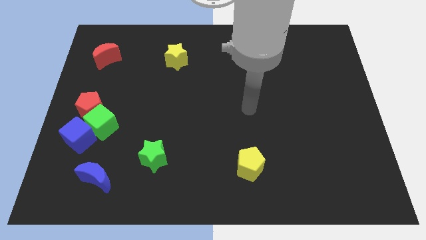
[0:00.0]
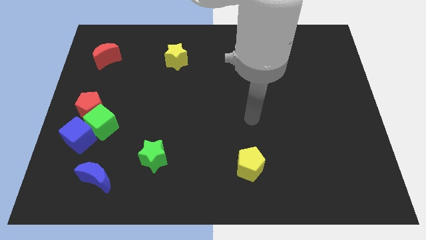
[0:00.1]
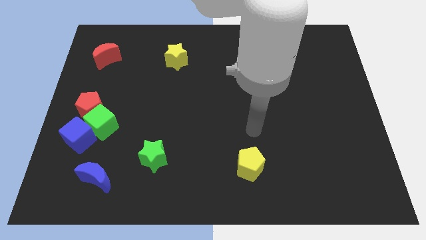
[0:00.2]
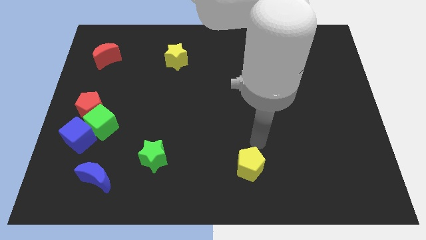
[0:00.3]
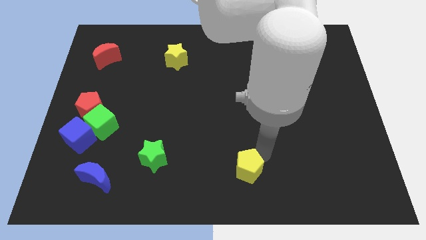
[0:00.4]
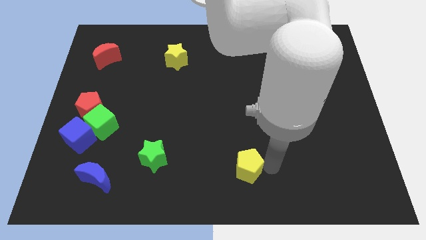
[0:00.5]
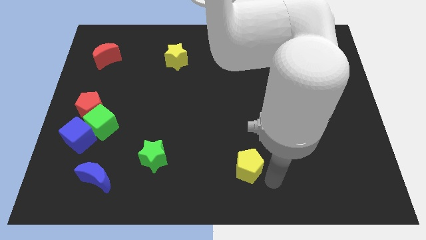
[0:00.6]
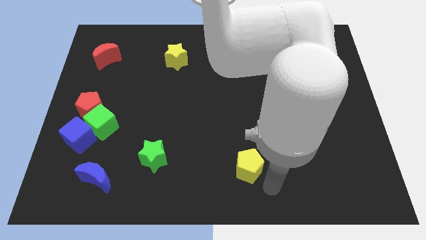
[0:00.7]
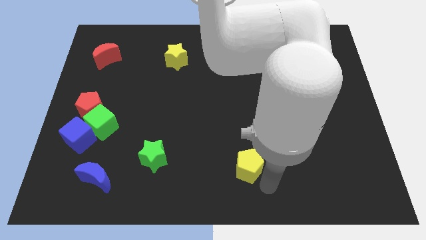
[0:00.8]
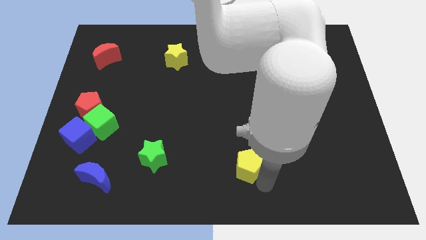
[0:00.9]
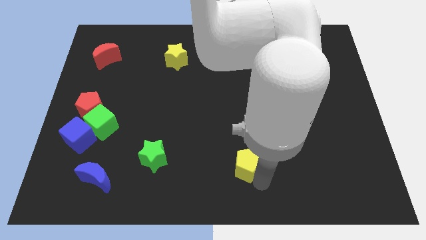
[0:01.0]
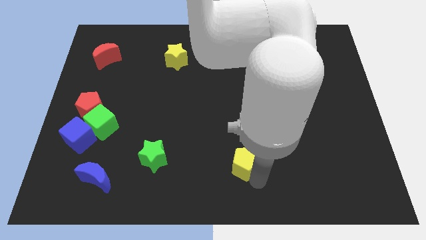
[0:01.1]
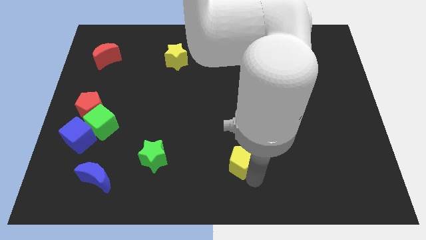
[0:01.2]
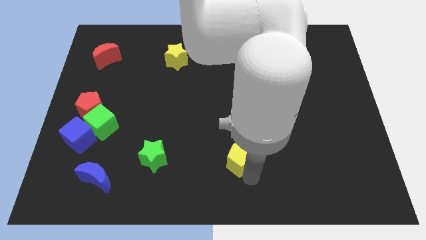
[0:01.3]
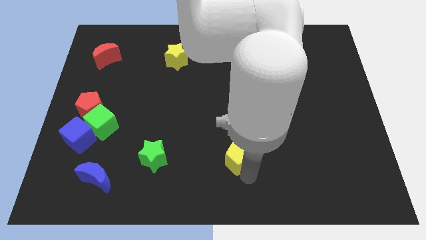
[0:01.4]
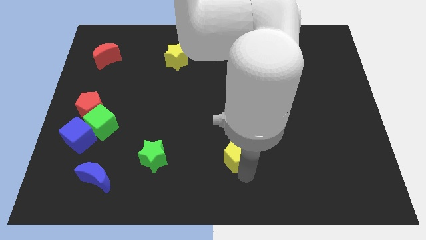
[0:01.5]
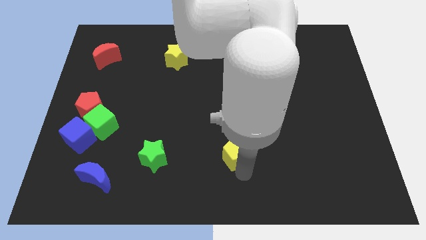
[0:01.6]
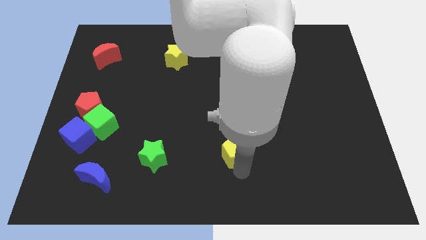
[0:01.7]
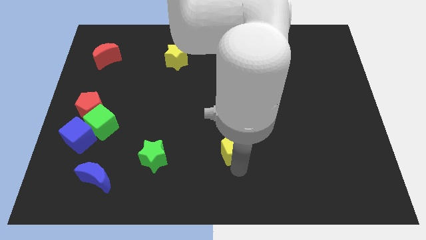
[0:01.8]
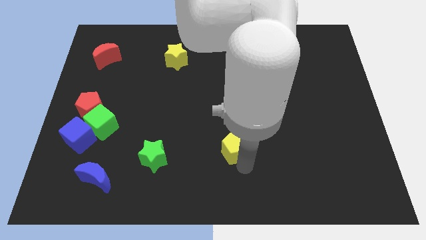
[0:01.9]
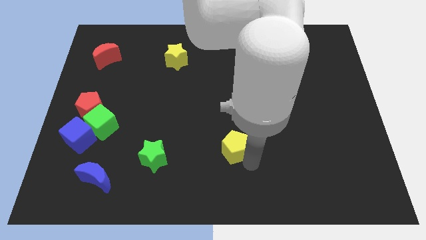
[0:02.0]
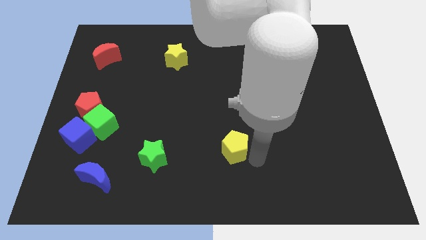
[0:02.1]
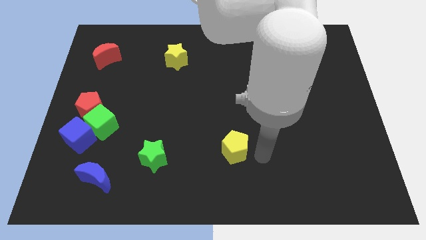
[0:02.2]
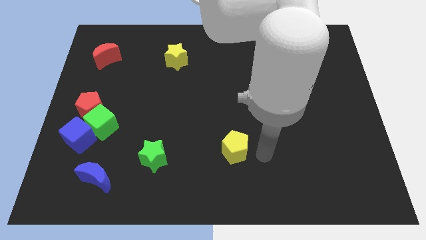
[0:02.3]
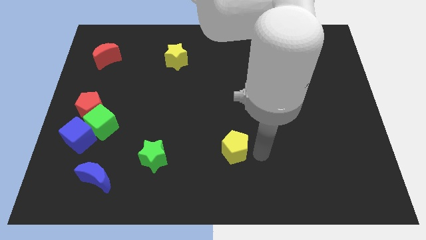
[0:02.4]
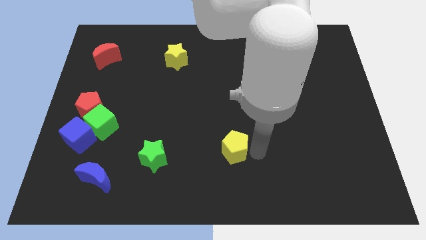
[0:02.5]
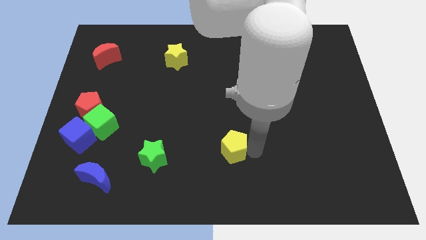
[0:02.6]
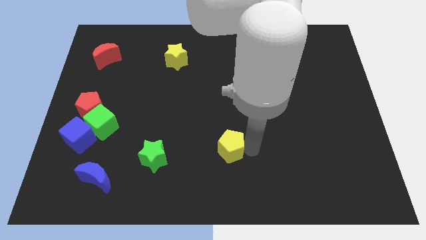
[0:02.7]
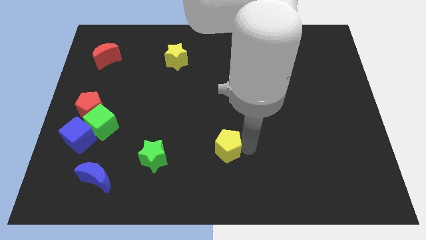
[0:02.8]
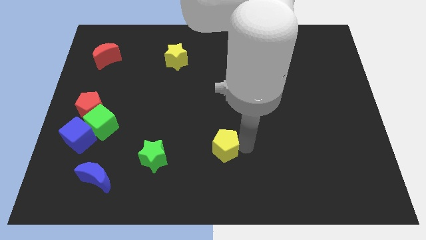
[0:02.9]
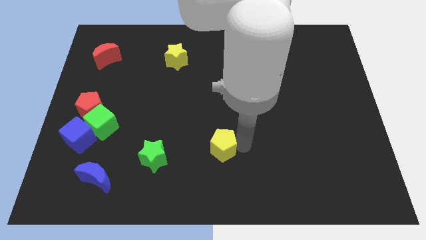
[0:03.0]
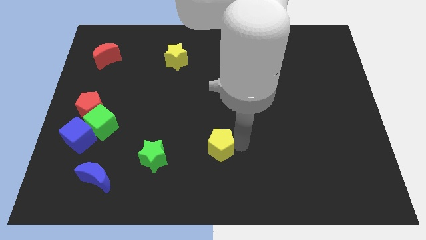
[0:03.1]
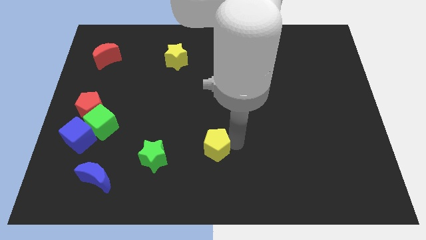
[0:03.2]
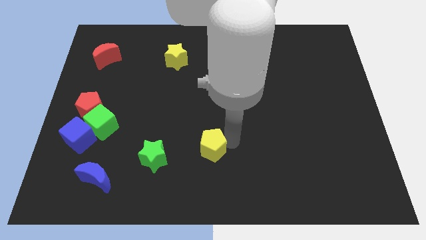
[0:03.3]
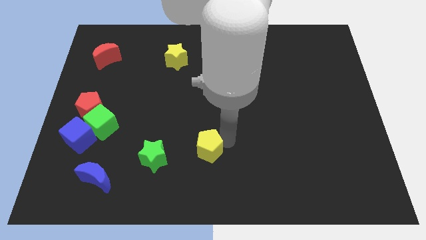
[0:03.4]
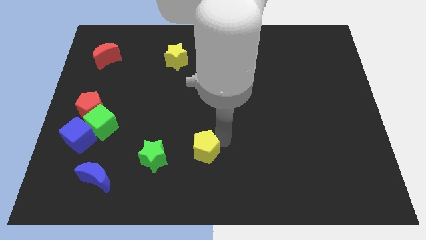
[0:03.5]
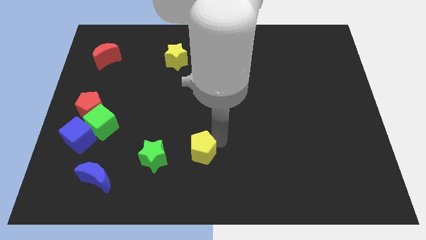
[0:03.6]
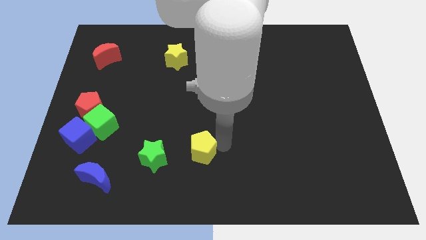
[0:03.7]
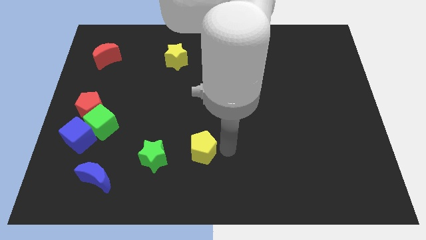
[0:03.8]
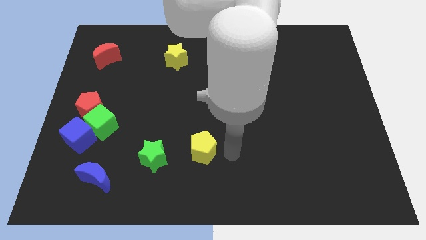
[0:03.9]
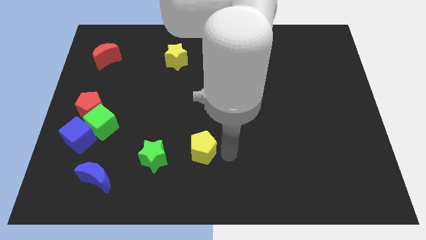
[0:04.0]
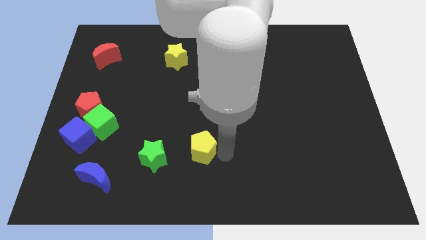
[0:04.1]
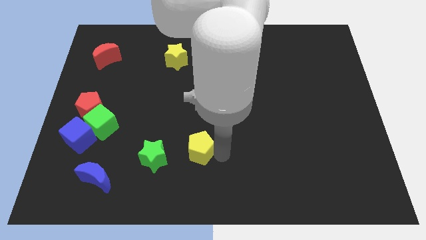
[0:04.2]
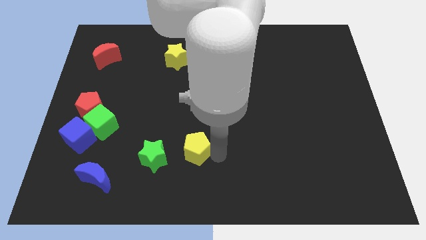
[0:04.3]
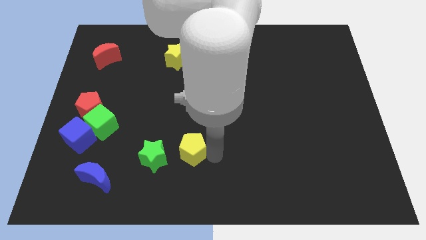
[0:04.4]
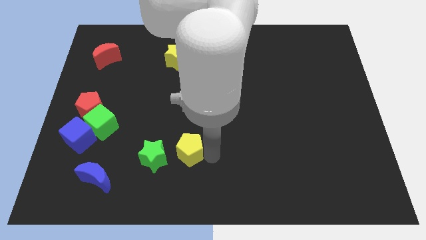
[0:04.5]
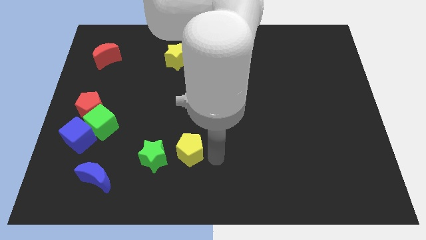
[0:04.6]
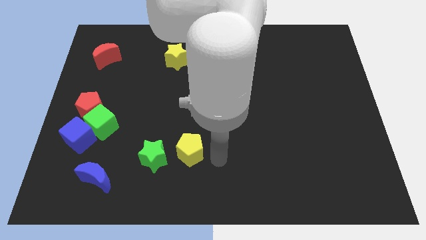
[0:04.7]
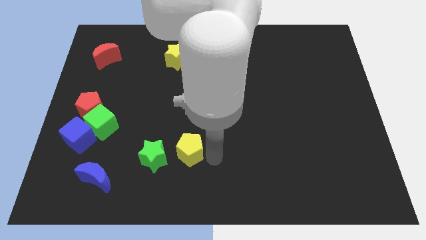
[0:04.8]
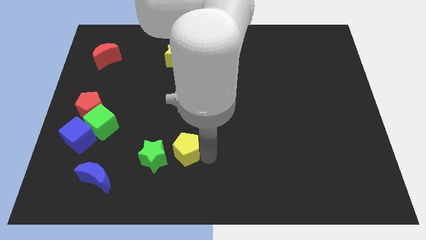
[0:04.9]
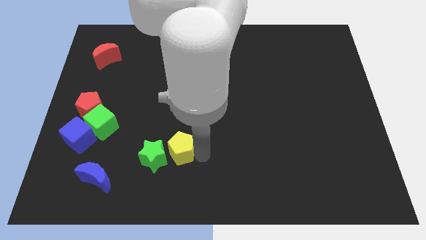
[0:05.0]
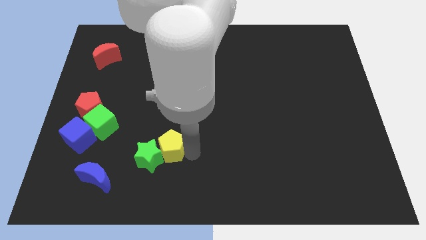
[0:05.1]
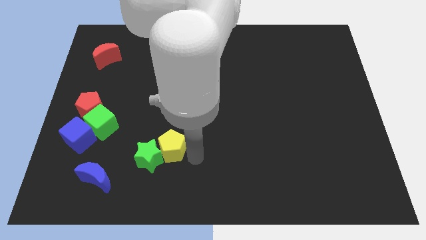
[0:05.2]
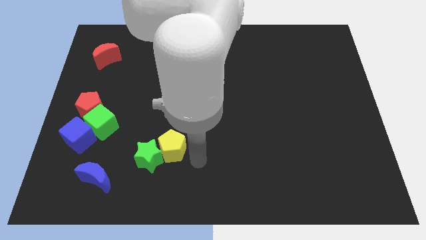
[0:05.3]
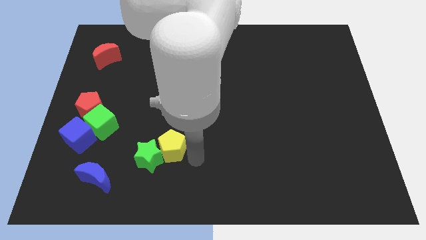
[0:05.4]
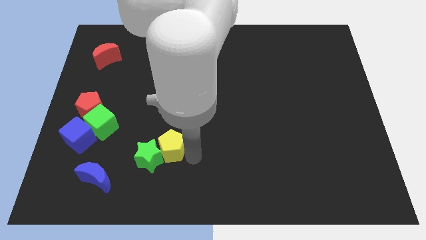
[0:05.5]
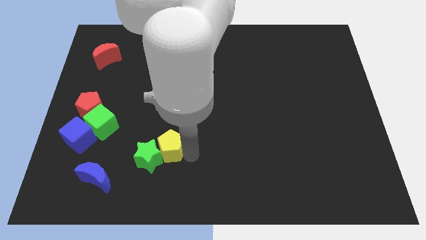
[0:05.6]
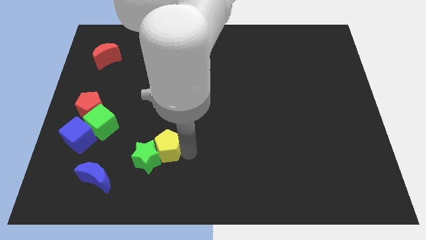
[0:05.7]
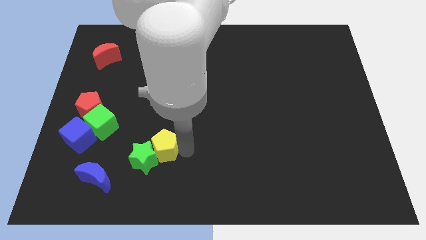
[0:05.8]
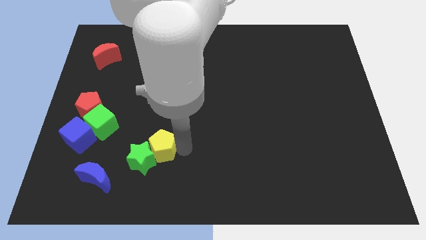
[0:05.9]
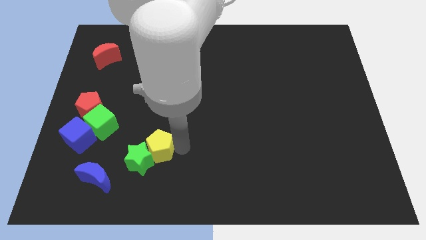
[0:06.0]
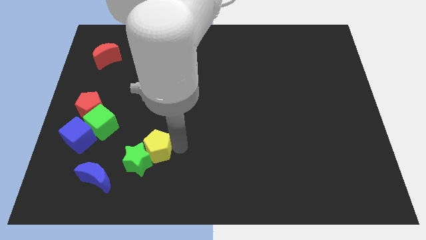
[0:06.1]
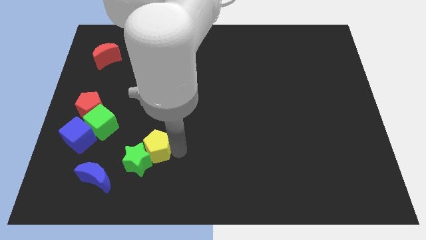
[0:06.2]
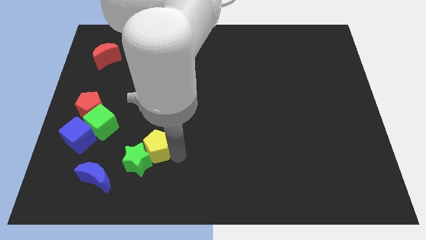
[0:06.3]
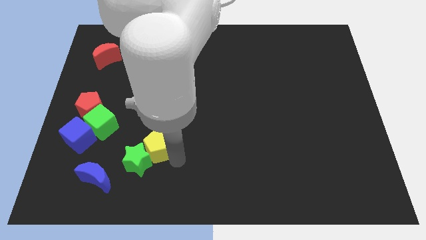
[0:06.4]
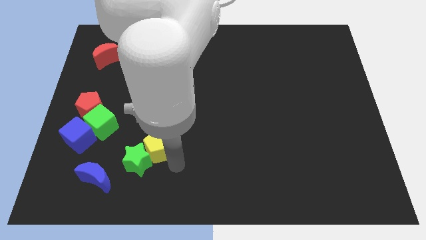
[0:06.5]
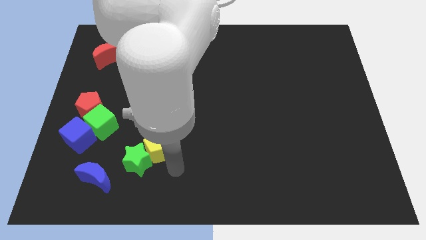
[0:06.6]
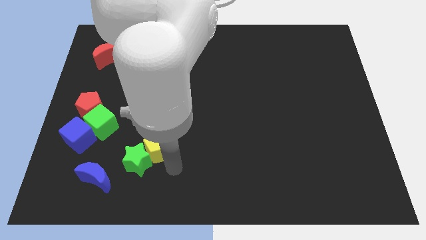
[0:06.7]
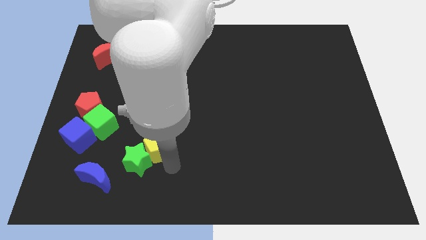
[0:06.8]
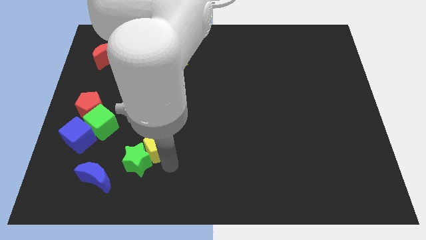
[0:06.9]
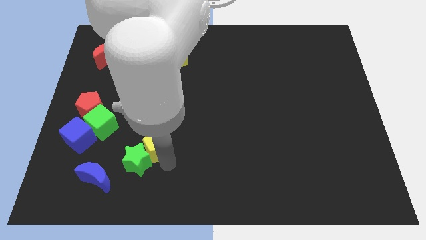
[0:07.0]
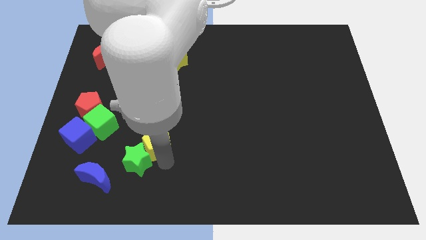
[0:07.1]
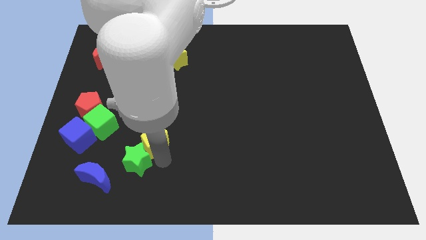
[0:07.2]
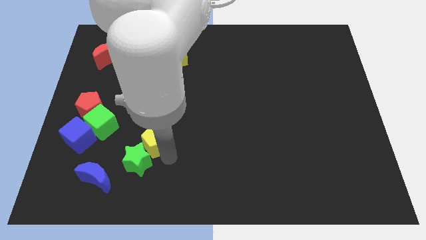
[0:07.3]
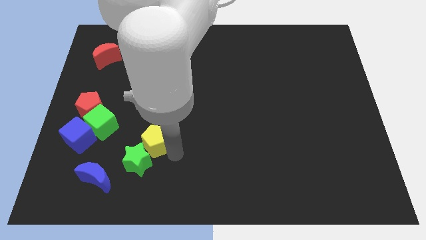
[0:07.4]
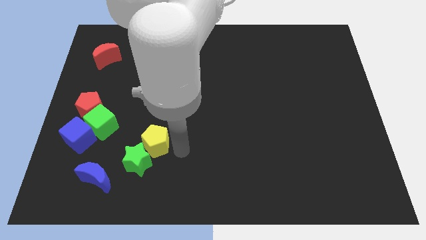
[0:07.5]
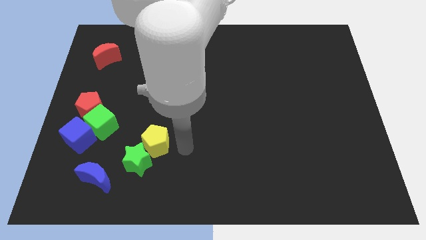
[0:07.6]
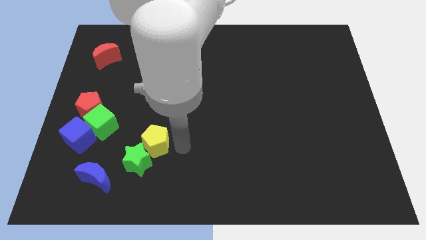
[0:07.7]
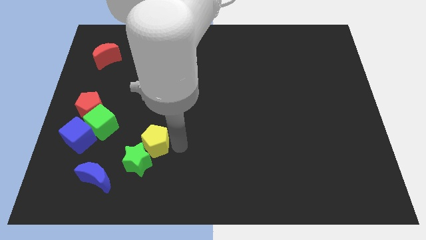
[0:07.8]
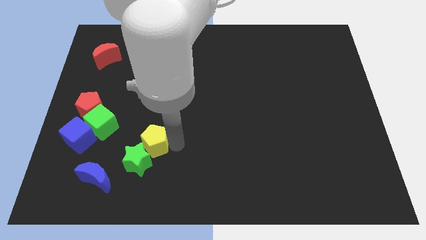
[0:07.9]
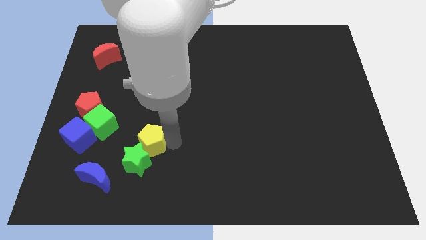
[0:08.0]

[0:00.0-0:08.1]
slide the yellow pentagon just right of the blue cube
